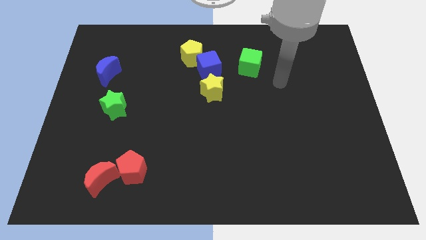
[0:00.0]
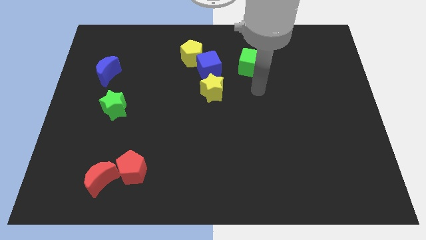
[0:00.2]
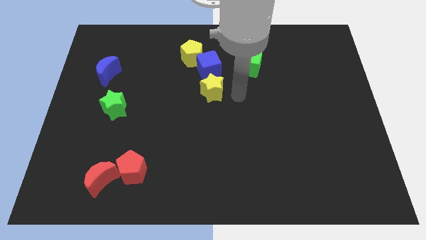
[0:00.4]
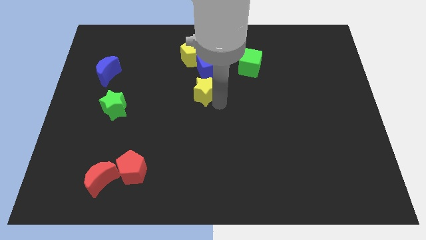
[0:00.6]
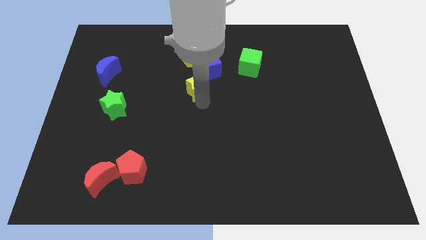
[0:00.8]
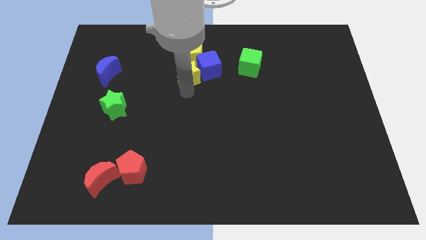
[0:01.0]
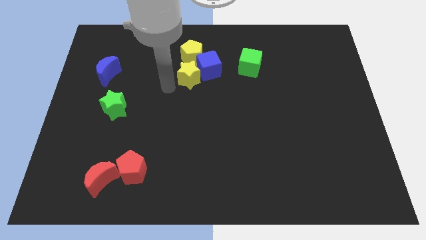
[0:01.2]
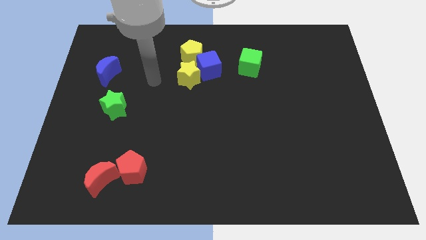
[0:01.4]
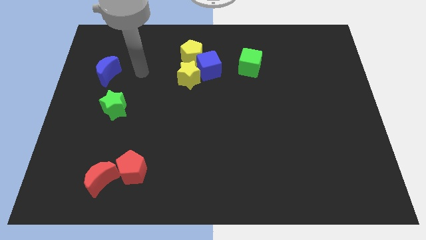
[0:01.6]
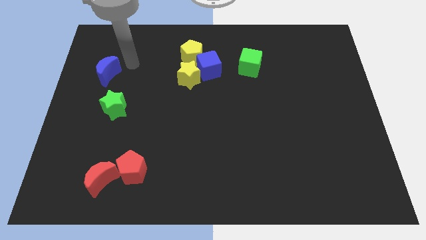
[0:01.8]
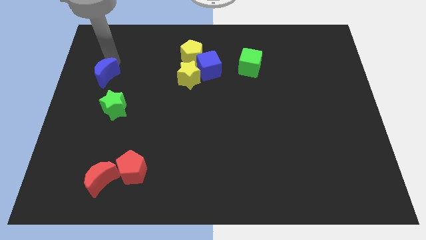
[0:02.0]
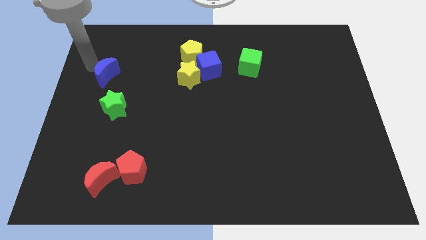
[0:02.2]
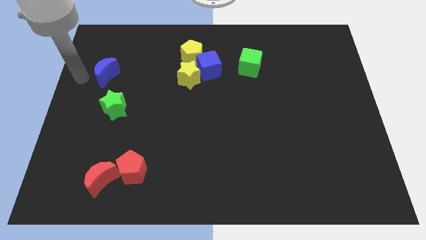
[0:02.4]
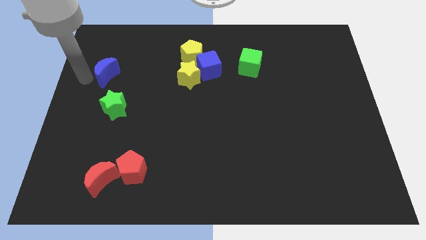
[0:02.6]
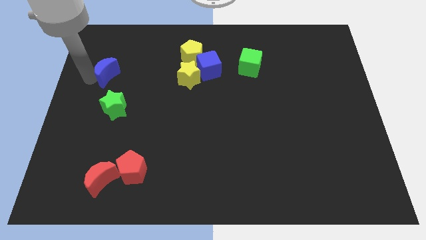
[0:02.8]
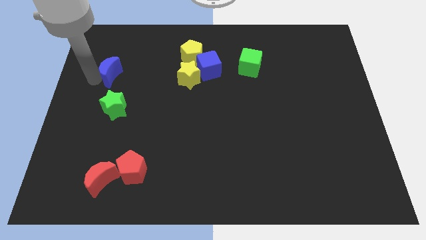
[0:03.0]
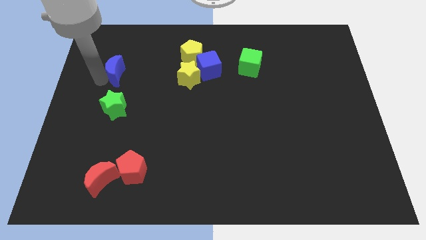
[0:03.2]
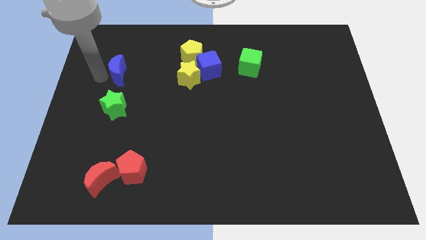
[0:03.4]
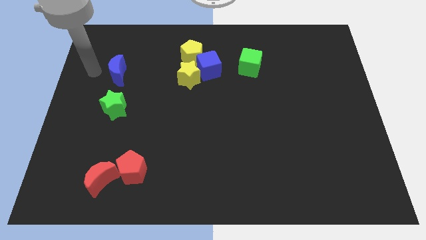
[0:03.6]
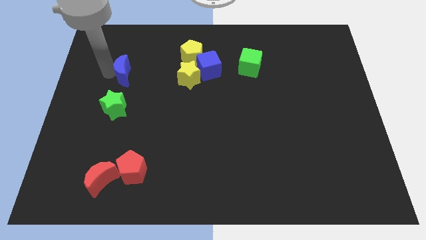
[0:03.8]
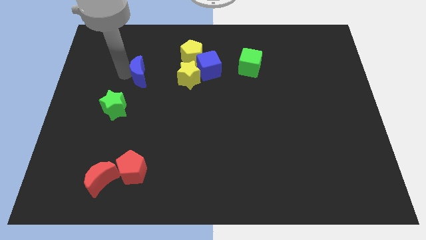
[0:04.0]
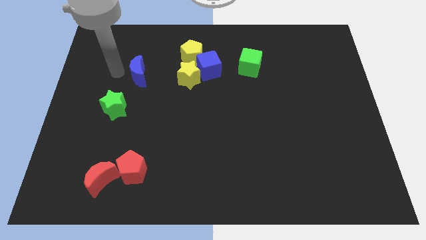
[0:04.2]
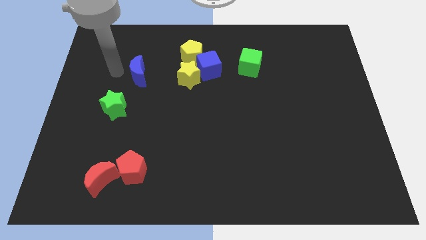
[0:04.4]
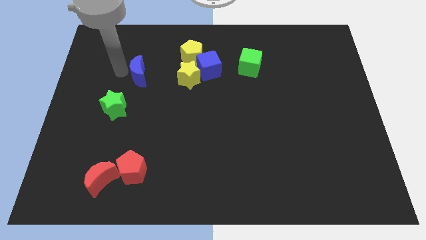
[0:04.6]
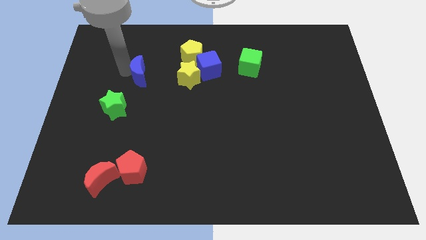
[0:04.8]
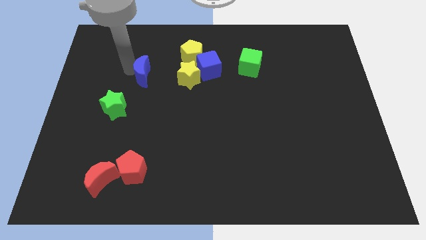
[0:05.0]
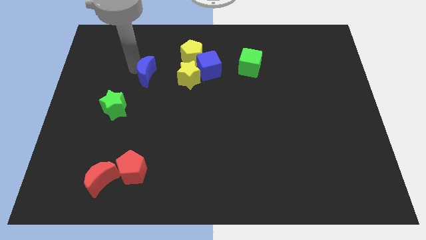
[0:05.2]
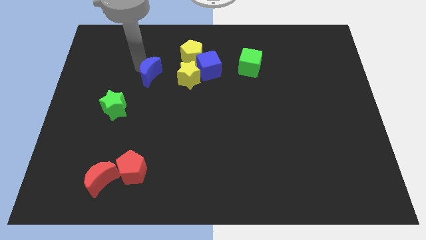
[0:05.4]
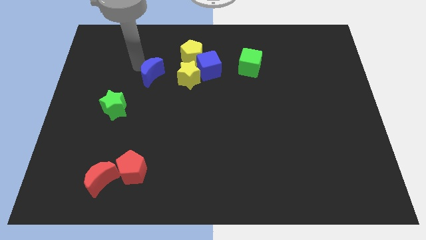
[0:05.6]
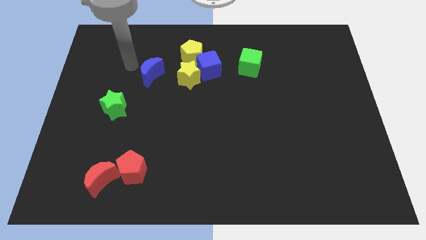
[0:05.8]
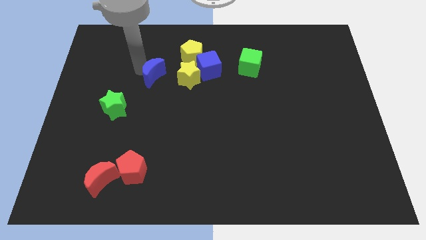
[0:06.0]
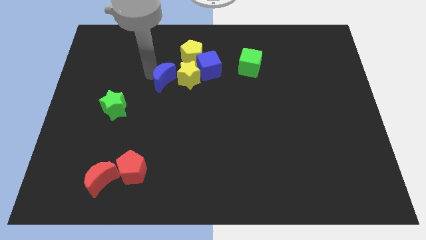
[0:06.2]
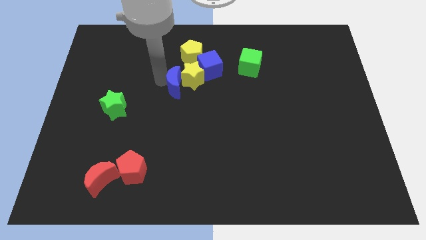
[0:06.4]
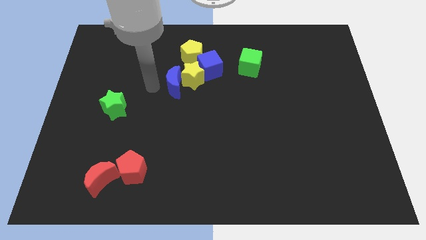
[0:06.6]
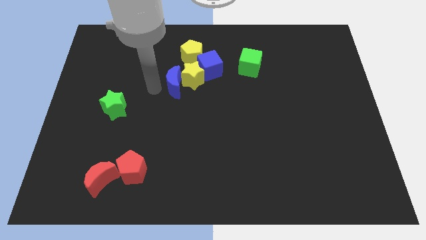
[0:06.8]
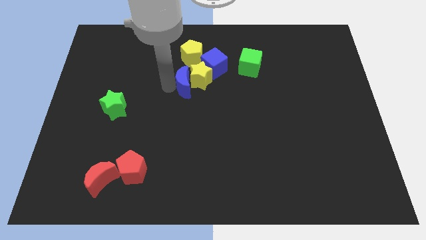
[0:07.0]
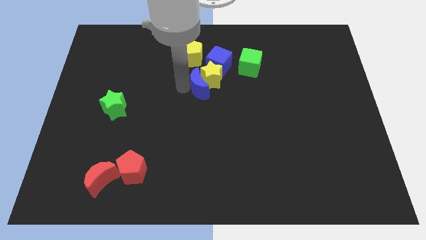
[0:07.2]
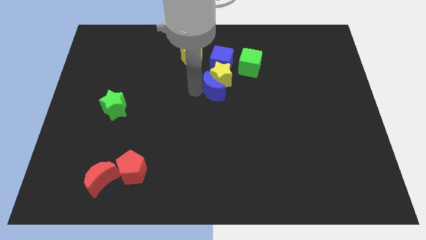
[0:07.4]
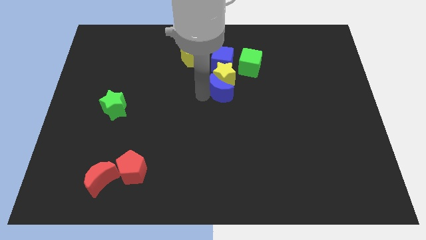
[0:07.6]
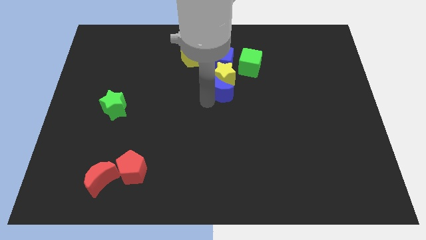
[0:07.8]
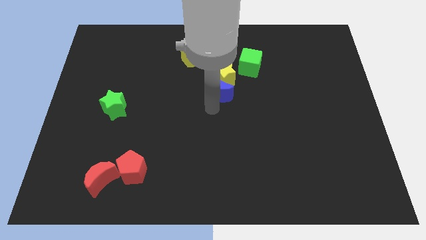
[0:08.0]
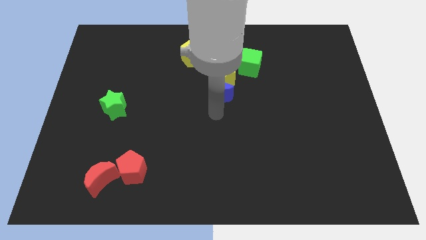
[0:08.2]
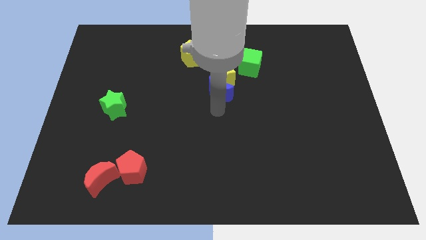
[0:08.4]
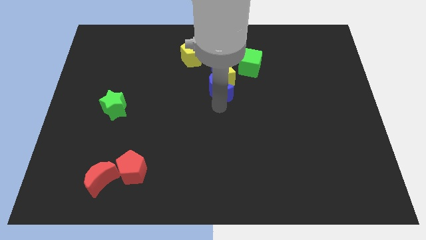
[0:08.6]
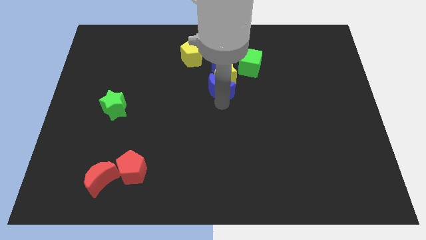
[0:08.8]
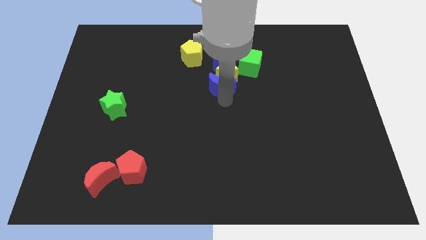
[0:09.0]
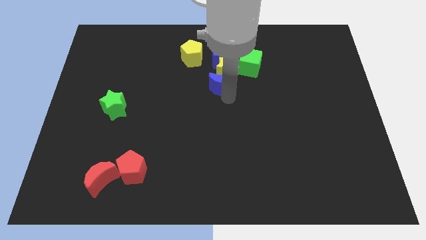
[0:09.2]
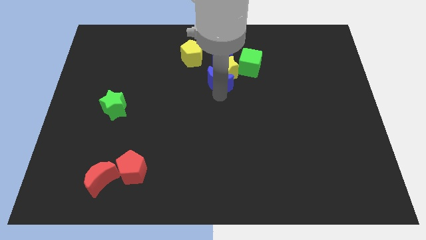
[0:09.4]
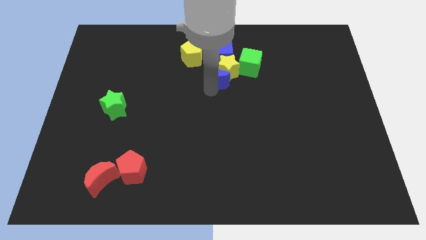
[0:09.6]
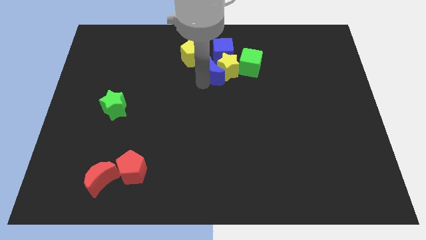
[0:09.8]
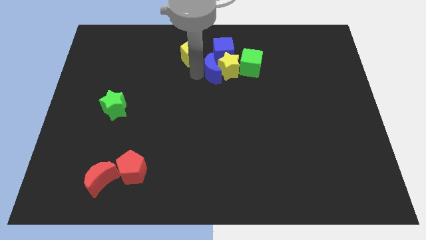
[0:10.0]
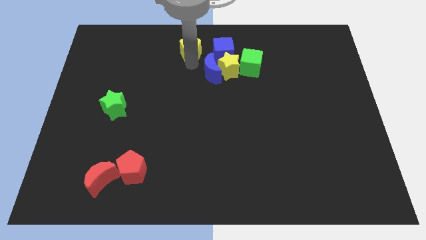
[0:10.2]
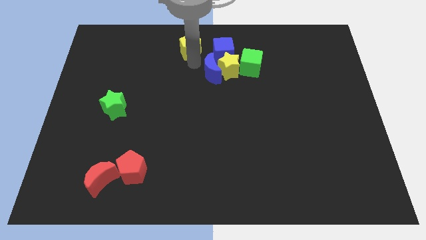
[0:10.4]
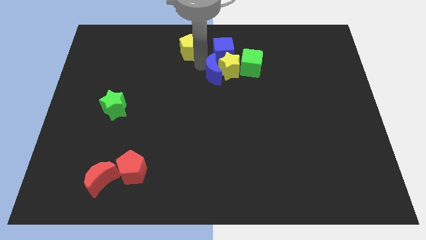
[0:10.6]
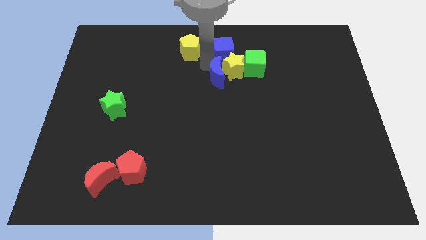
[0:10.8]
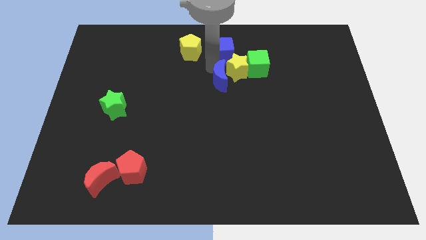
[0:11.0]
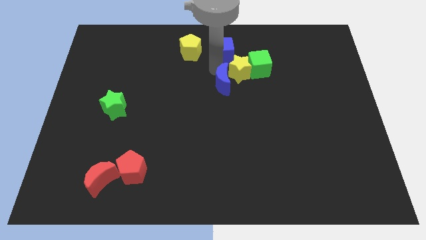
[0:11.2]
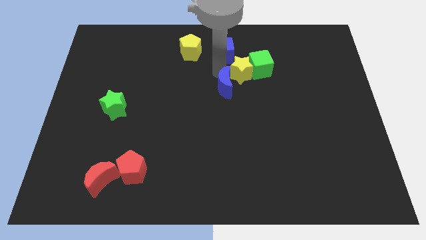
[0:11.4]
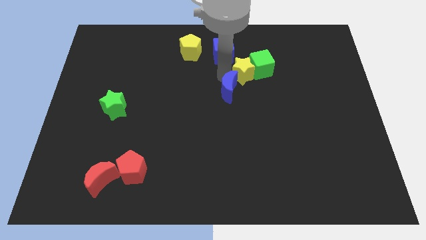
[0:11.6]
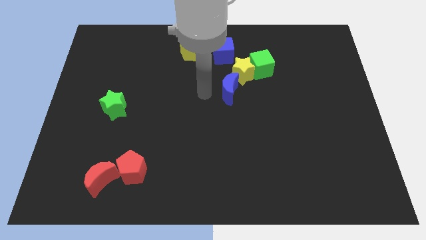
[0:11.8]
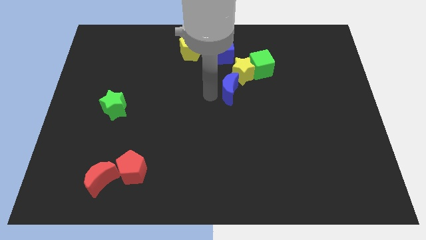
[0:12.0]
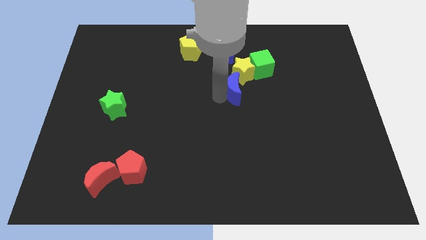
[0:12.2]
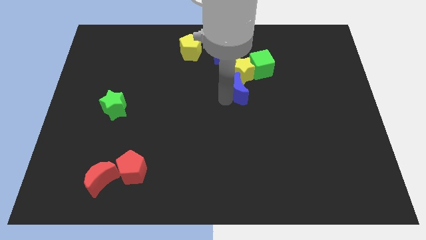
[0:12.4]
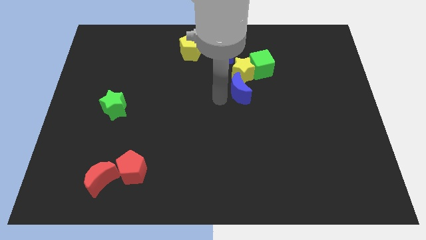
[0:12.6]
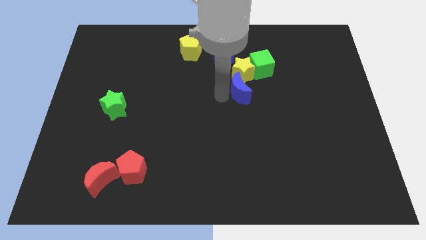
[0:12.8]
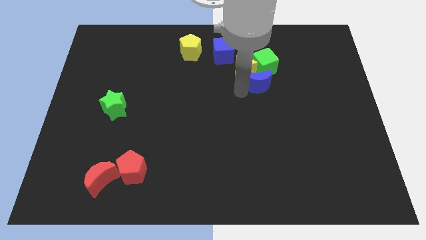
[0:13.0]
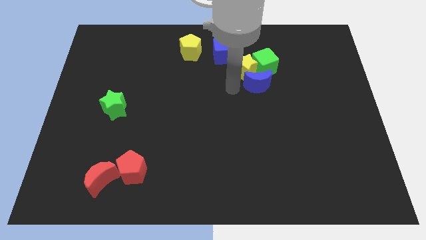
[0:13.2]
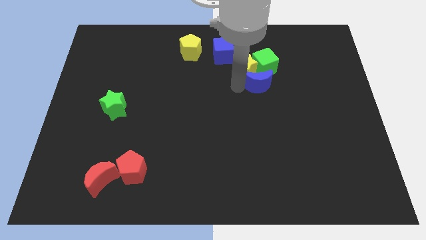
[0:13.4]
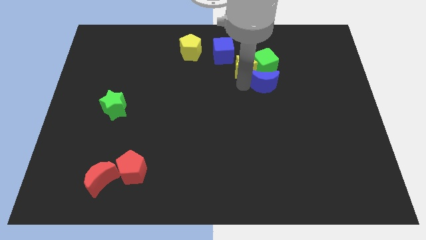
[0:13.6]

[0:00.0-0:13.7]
push the blue moon to the bottom right side of the green cube

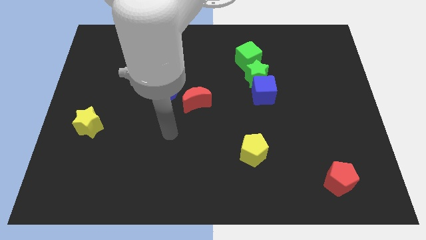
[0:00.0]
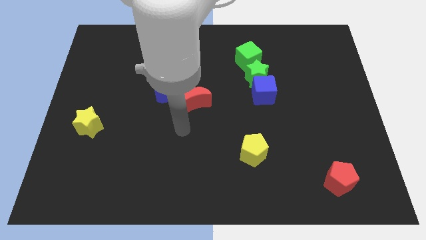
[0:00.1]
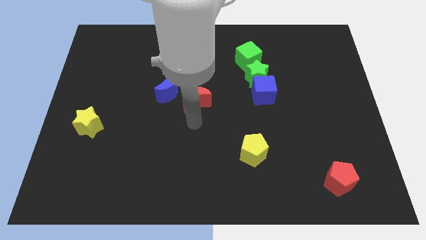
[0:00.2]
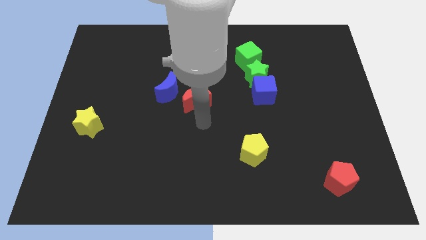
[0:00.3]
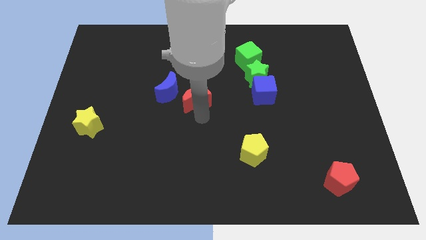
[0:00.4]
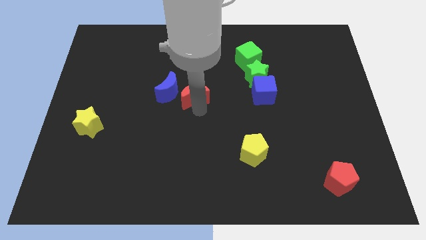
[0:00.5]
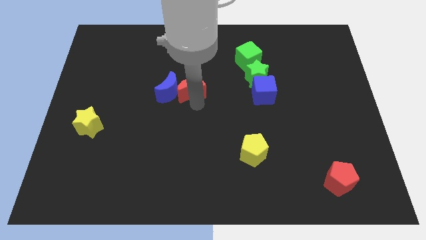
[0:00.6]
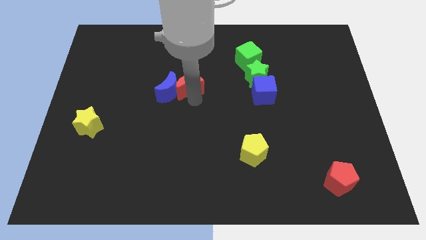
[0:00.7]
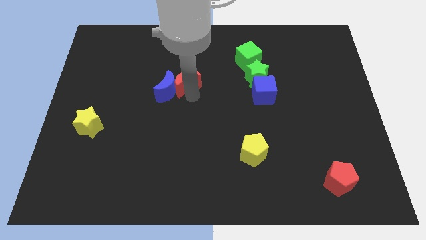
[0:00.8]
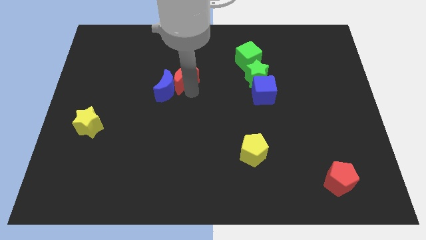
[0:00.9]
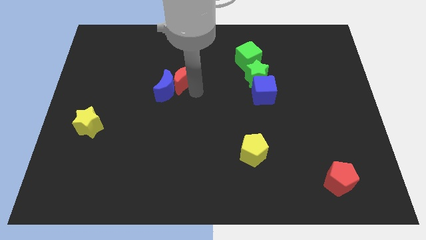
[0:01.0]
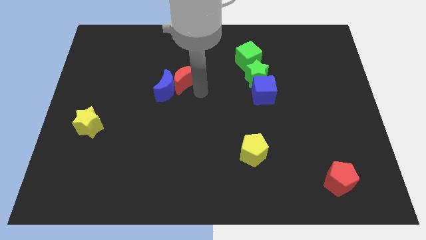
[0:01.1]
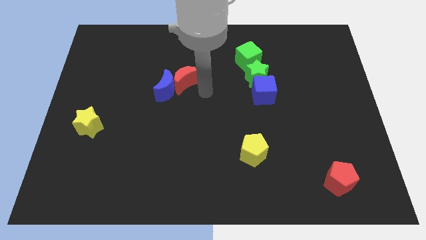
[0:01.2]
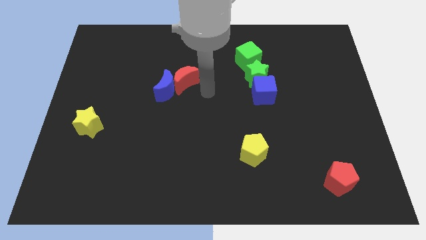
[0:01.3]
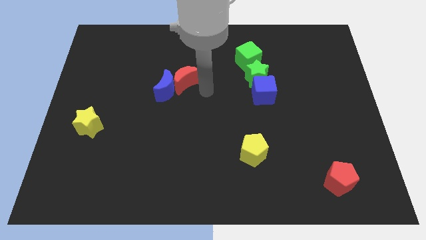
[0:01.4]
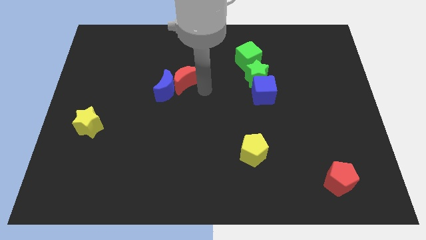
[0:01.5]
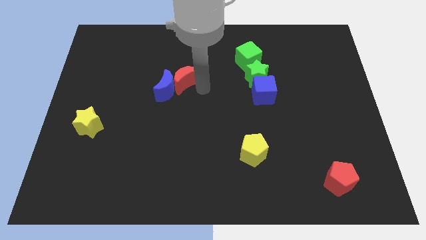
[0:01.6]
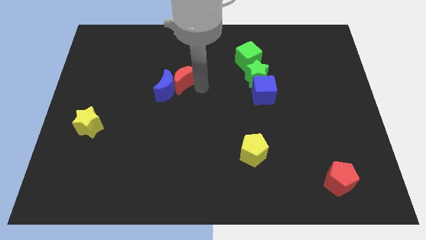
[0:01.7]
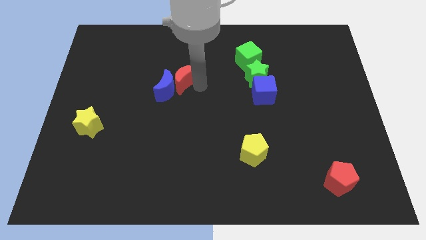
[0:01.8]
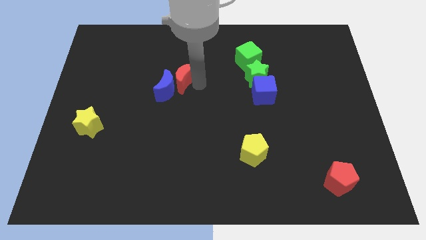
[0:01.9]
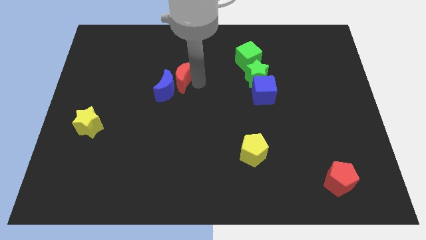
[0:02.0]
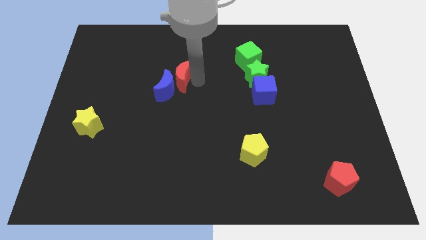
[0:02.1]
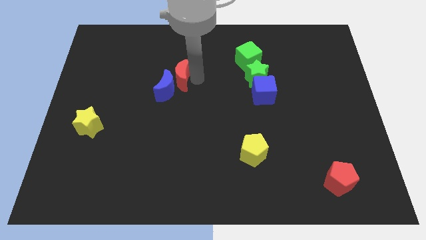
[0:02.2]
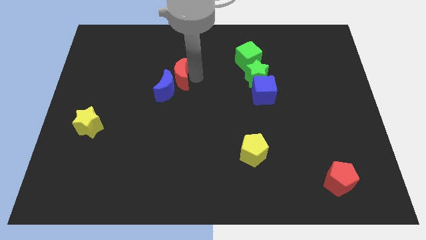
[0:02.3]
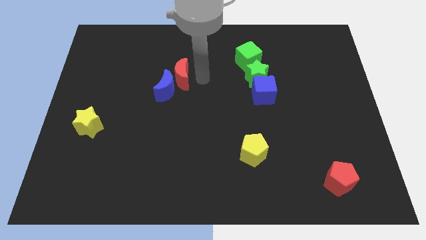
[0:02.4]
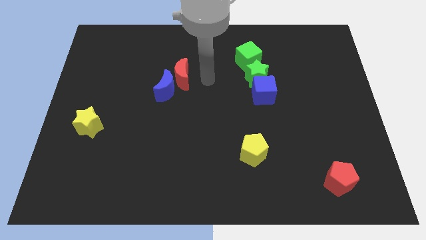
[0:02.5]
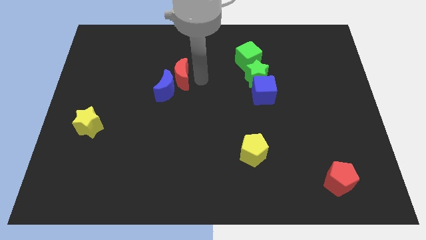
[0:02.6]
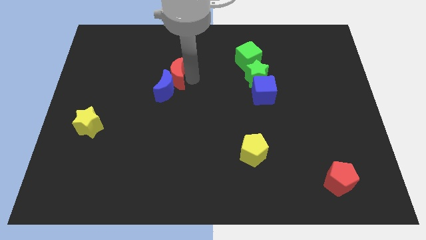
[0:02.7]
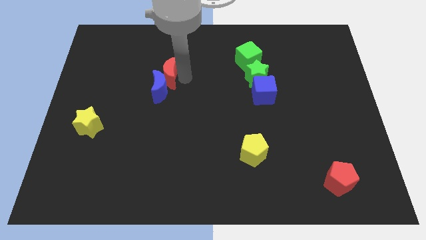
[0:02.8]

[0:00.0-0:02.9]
slide the red moon diagonally up and to the left of the blue moon
